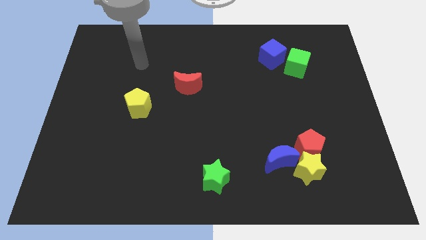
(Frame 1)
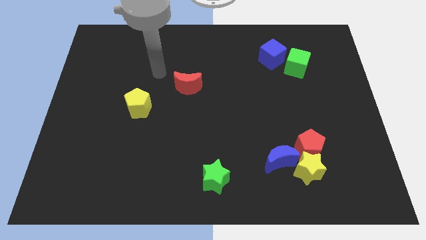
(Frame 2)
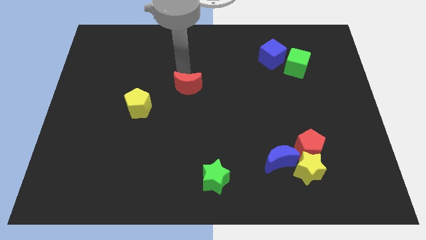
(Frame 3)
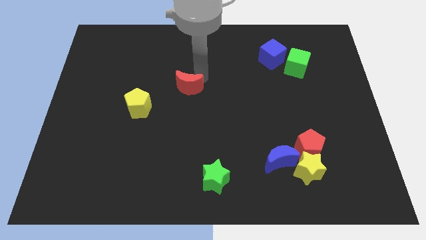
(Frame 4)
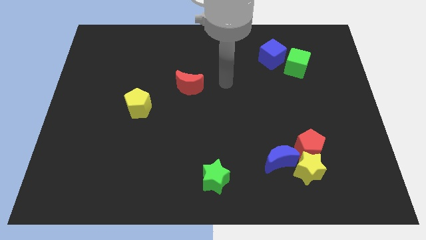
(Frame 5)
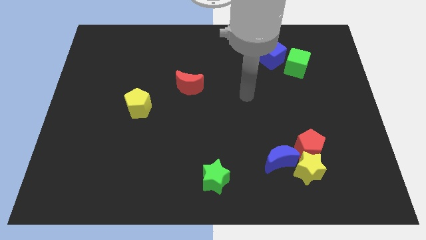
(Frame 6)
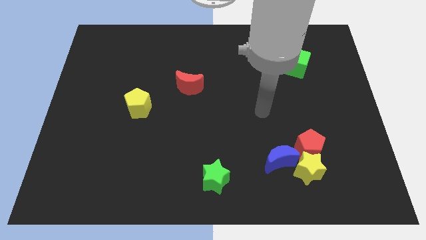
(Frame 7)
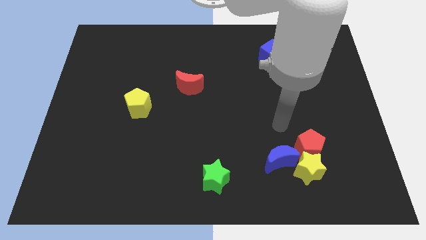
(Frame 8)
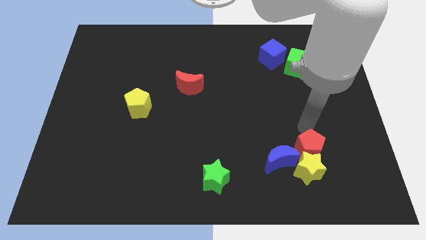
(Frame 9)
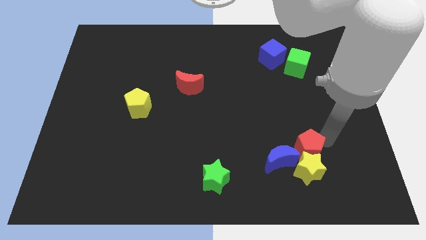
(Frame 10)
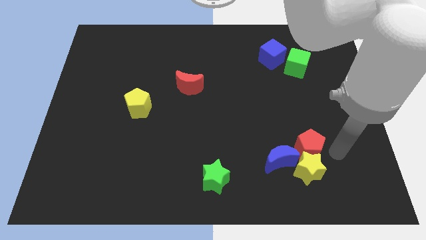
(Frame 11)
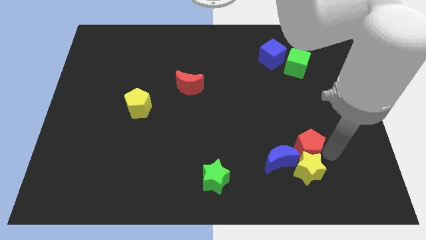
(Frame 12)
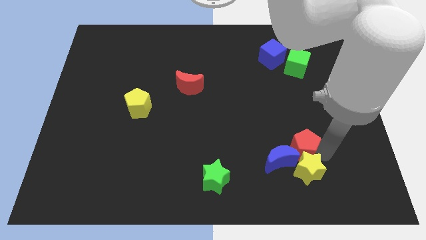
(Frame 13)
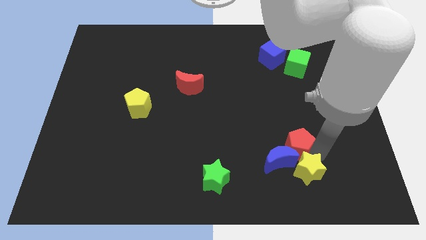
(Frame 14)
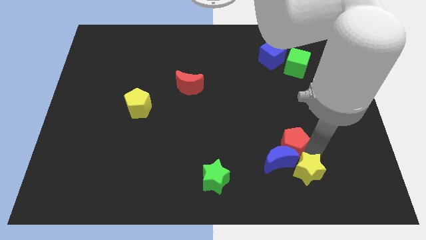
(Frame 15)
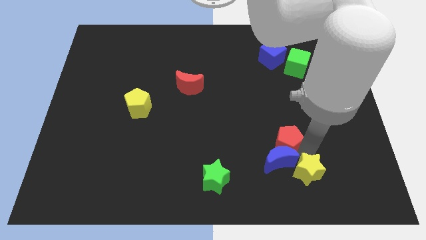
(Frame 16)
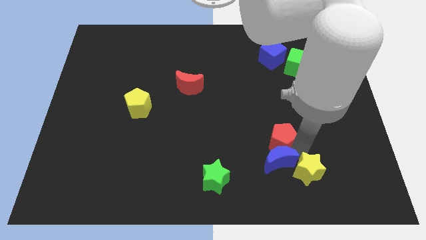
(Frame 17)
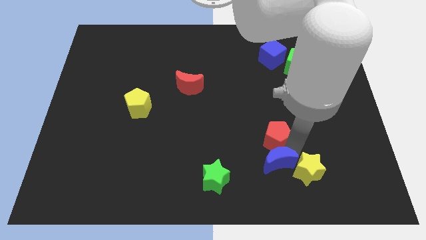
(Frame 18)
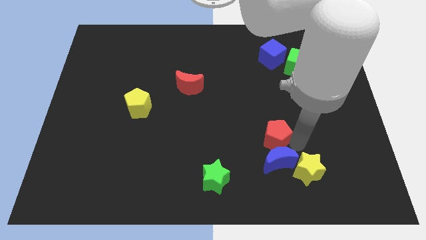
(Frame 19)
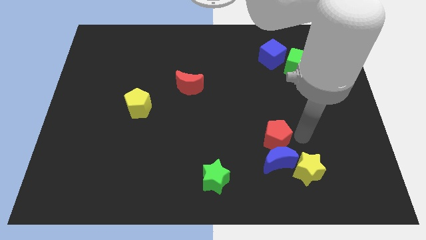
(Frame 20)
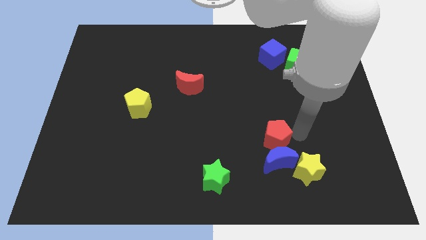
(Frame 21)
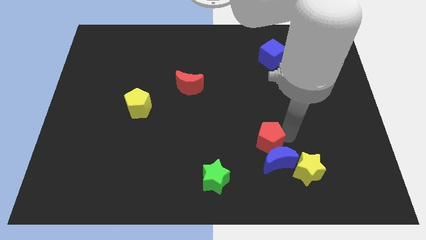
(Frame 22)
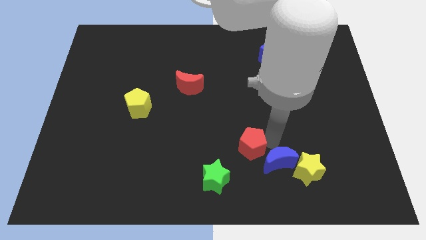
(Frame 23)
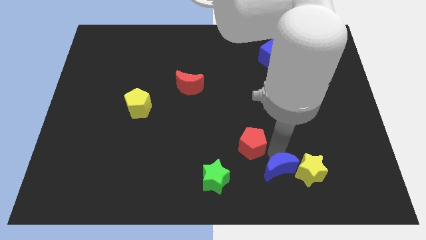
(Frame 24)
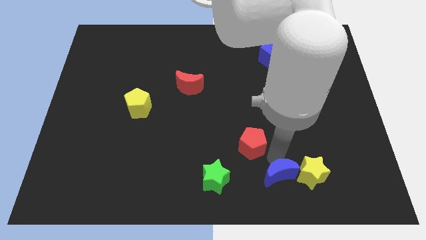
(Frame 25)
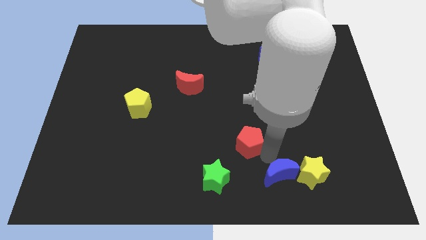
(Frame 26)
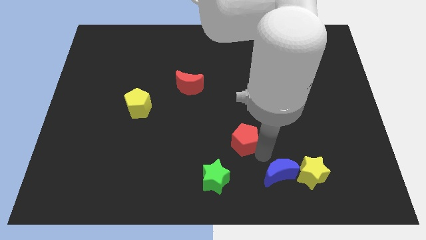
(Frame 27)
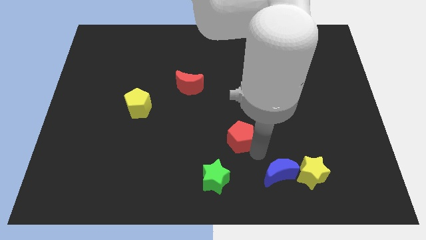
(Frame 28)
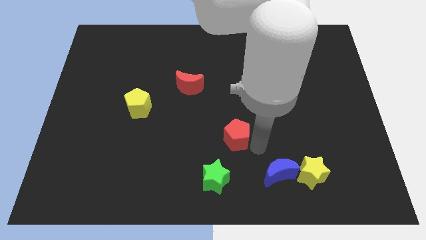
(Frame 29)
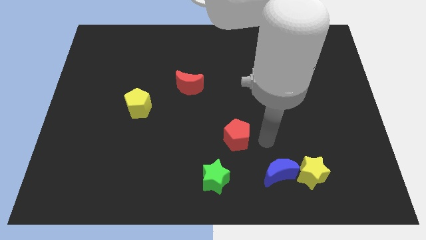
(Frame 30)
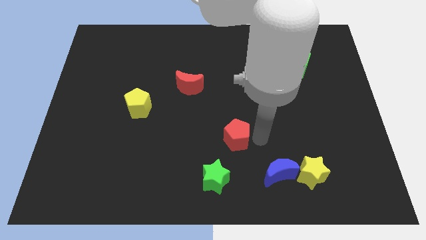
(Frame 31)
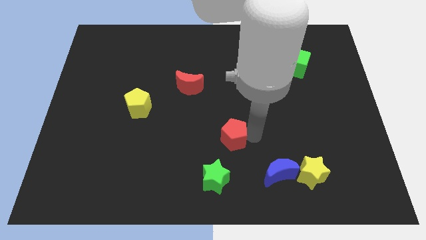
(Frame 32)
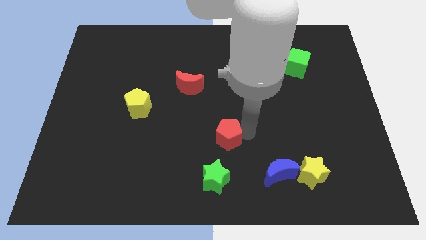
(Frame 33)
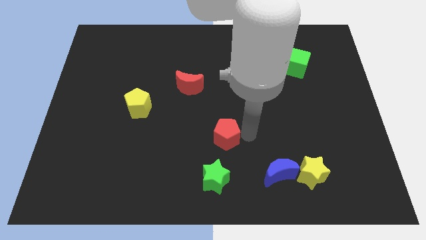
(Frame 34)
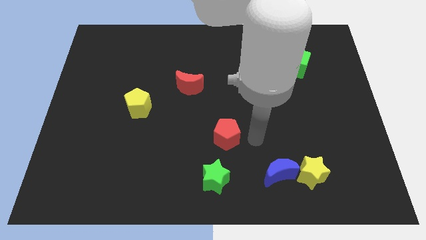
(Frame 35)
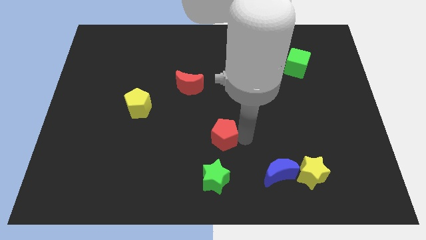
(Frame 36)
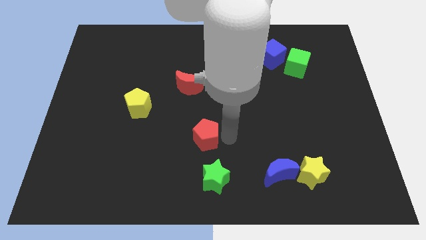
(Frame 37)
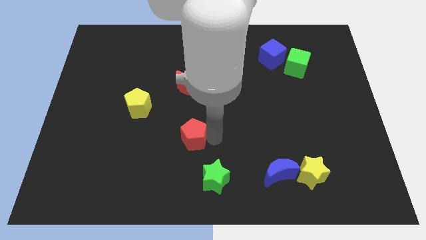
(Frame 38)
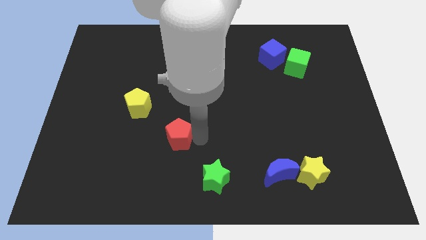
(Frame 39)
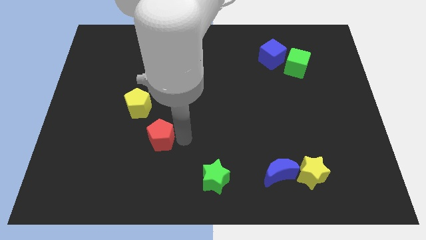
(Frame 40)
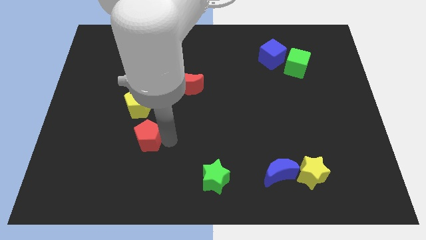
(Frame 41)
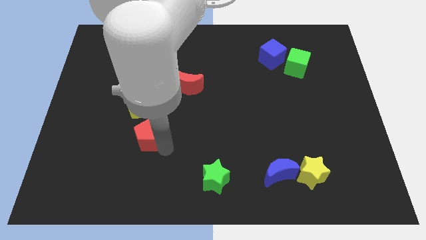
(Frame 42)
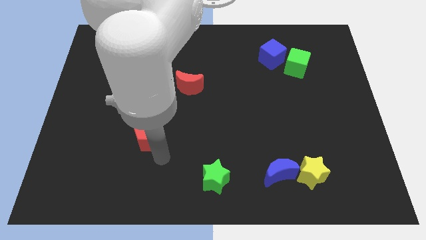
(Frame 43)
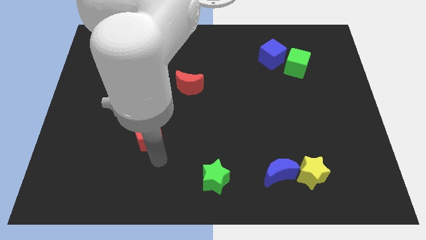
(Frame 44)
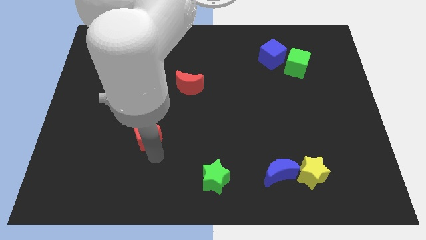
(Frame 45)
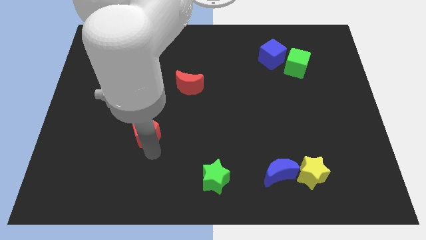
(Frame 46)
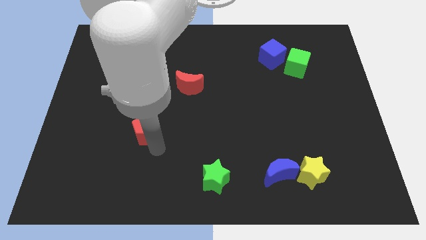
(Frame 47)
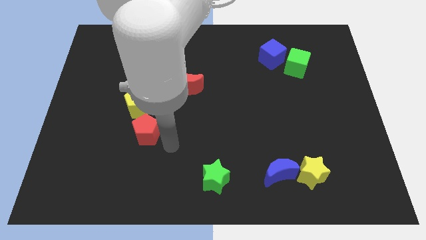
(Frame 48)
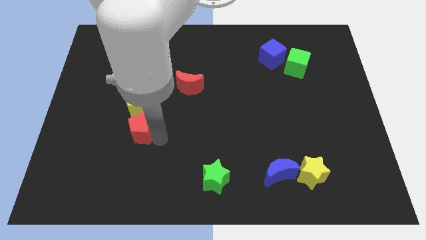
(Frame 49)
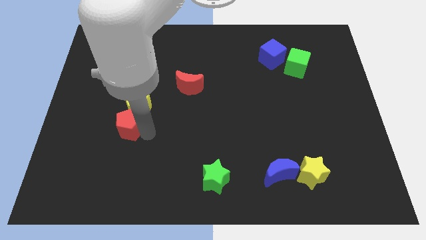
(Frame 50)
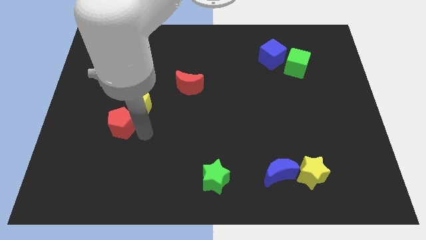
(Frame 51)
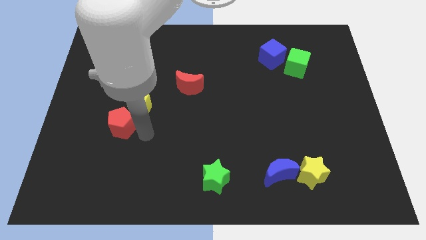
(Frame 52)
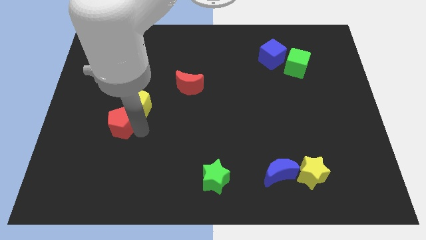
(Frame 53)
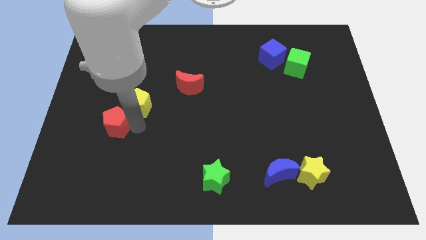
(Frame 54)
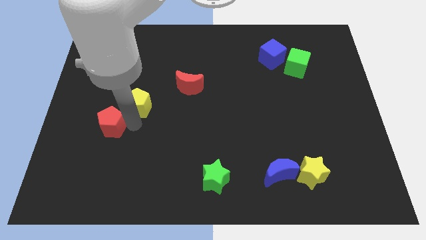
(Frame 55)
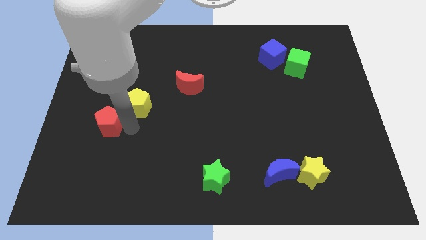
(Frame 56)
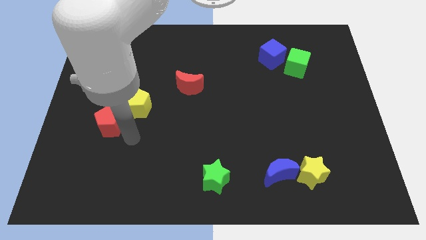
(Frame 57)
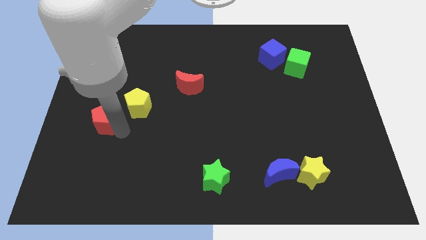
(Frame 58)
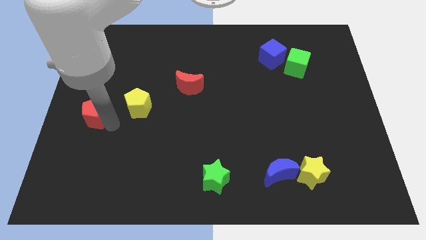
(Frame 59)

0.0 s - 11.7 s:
push the red pentagon to the center left

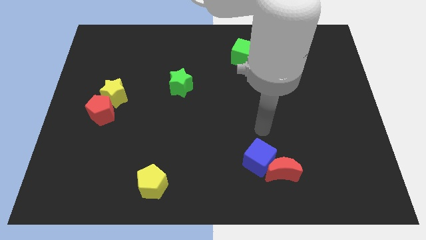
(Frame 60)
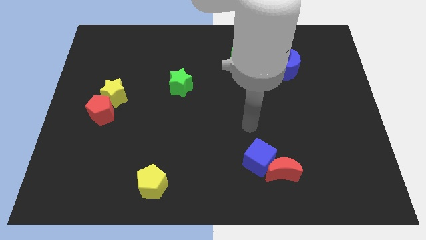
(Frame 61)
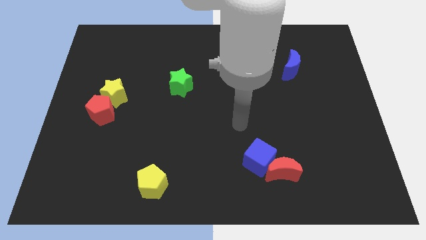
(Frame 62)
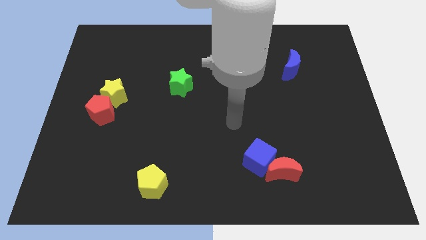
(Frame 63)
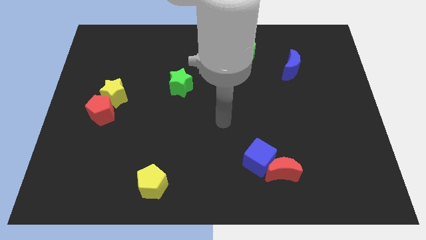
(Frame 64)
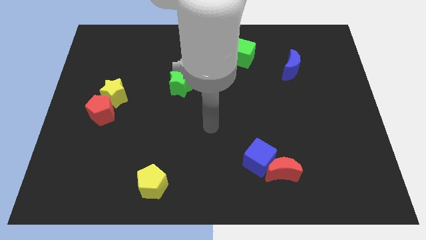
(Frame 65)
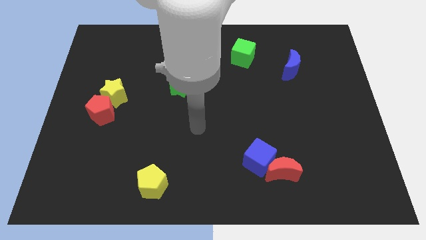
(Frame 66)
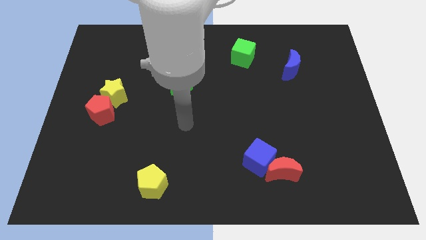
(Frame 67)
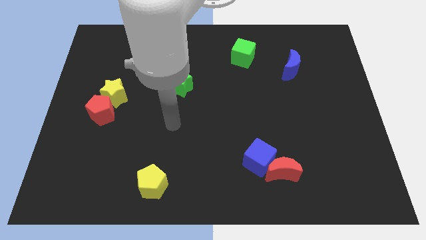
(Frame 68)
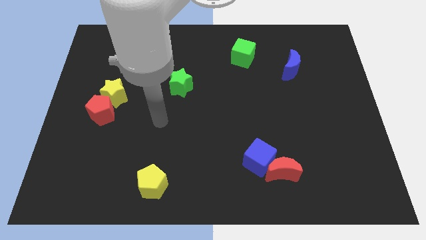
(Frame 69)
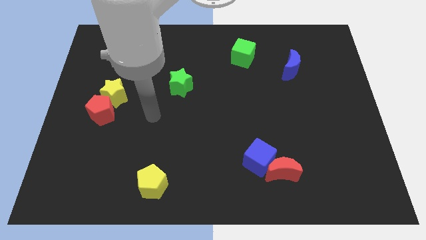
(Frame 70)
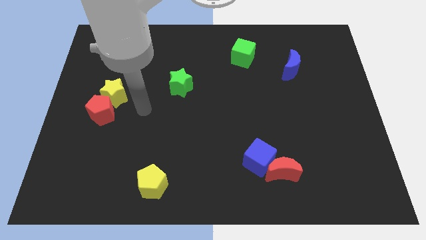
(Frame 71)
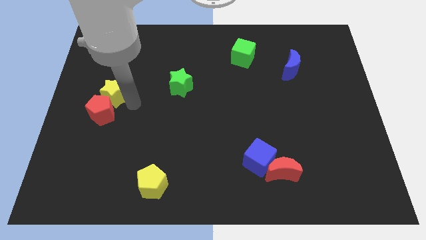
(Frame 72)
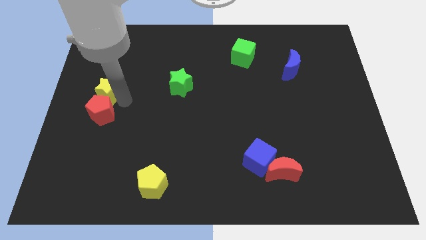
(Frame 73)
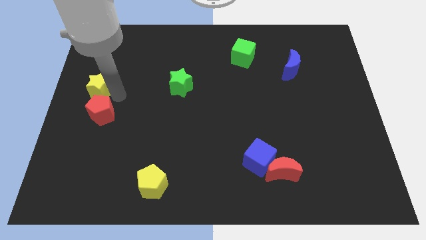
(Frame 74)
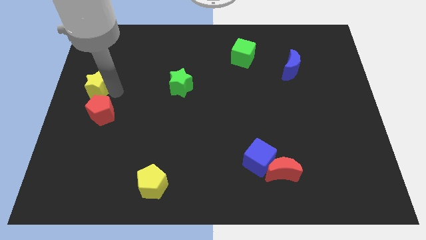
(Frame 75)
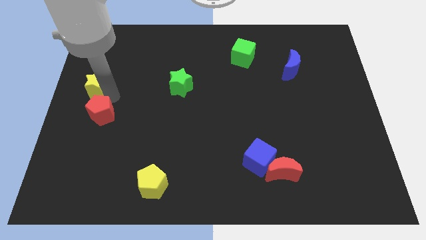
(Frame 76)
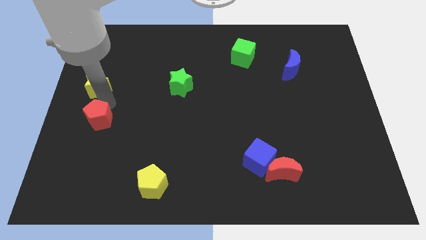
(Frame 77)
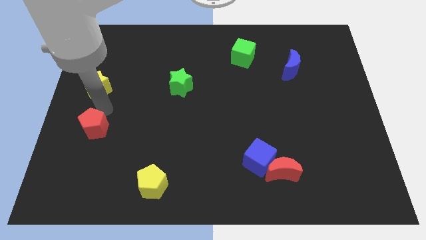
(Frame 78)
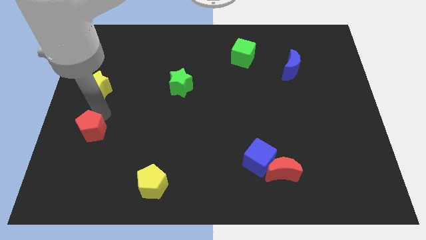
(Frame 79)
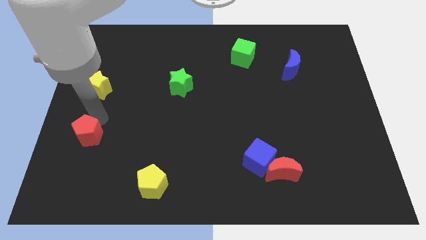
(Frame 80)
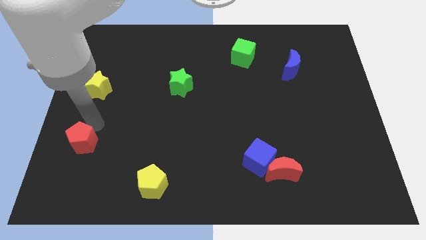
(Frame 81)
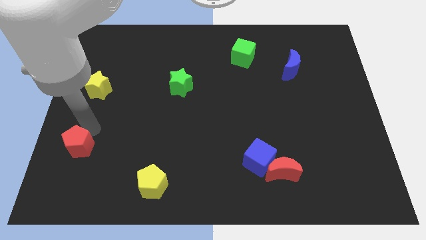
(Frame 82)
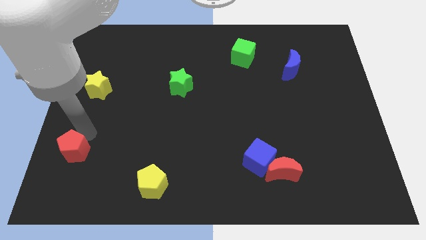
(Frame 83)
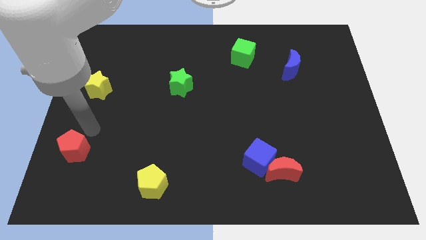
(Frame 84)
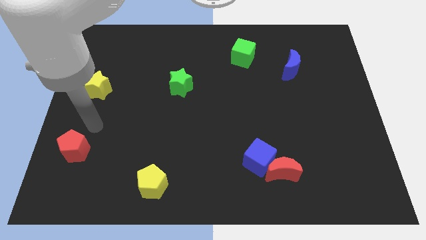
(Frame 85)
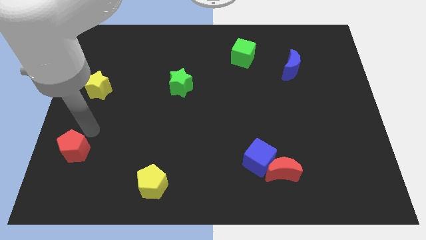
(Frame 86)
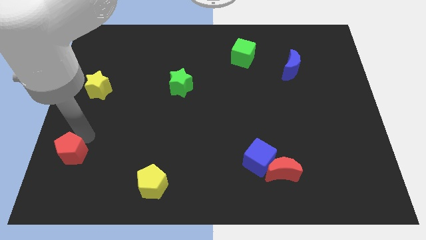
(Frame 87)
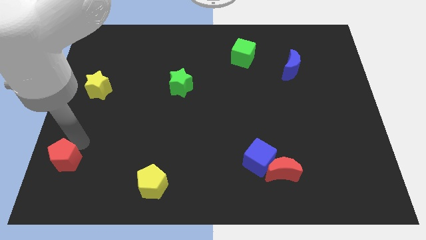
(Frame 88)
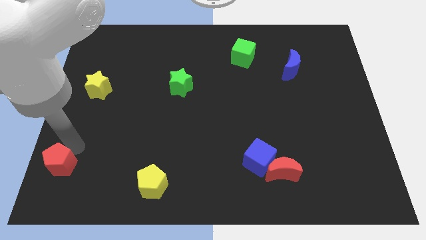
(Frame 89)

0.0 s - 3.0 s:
move the red pentagon to the lower left corner
